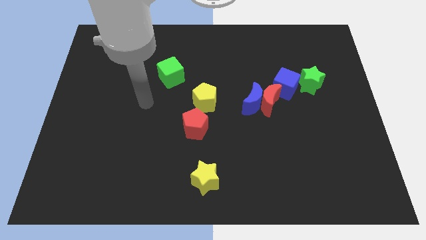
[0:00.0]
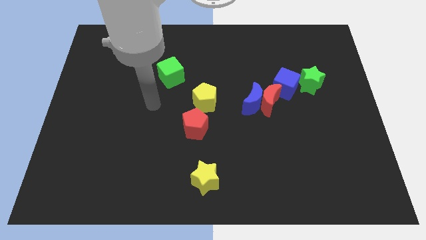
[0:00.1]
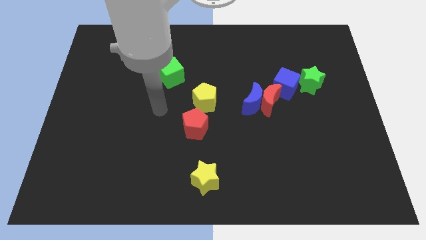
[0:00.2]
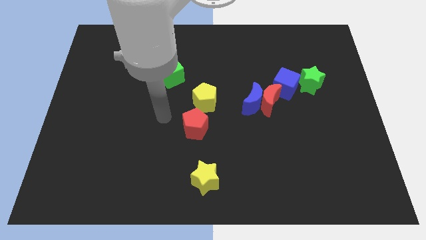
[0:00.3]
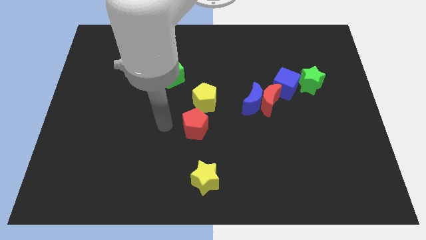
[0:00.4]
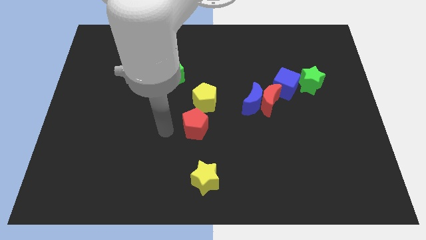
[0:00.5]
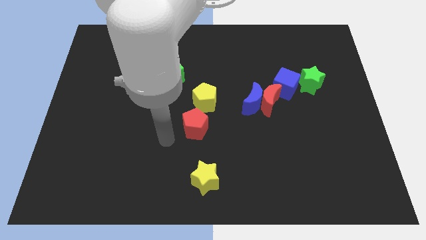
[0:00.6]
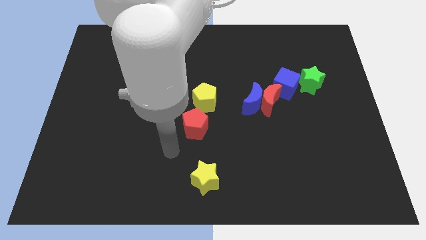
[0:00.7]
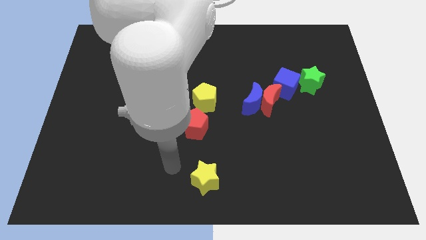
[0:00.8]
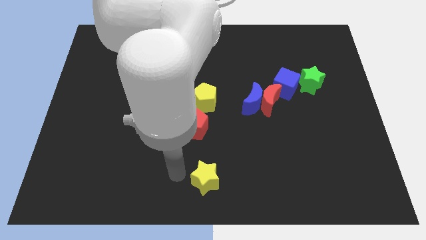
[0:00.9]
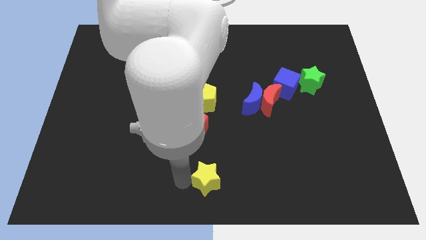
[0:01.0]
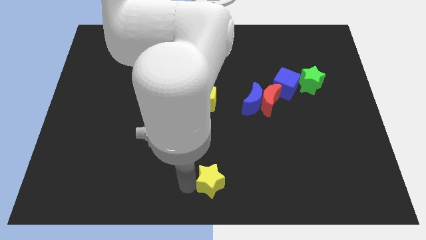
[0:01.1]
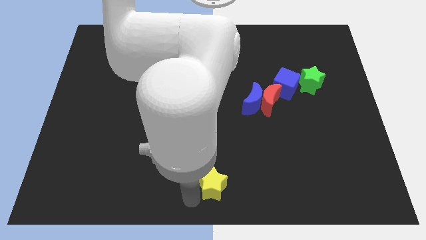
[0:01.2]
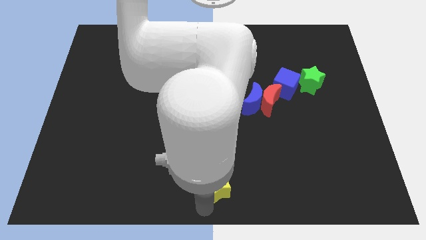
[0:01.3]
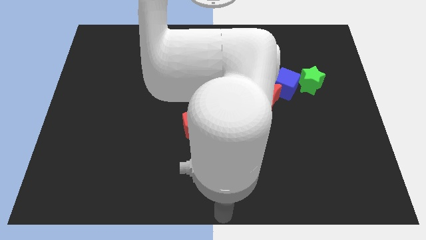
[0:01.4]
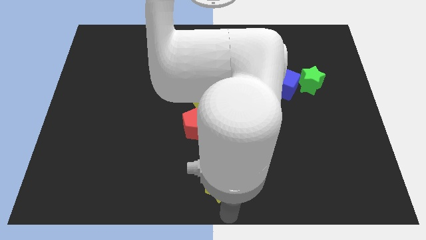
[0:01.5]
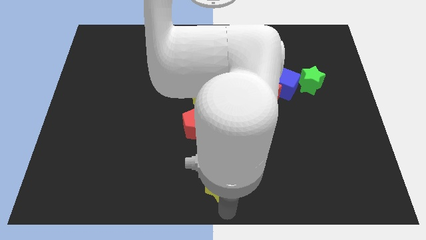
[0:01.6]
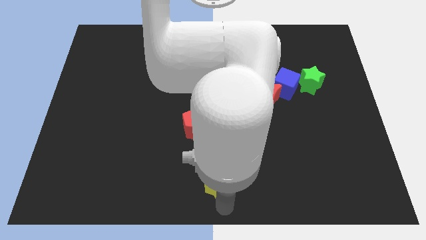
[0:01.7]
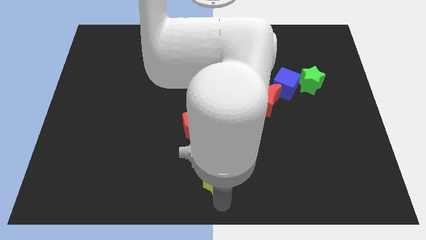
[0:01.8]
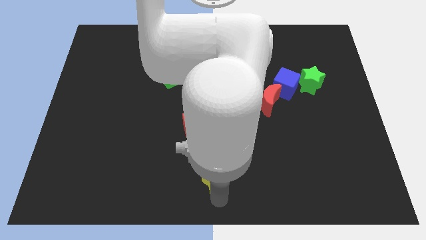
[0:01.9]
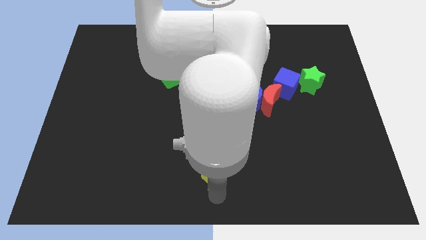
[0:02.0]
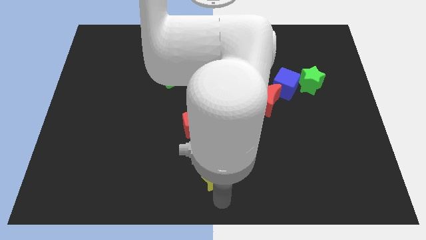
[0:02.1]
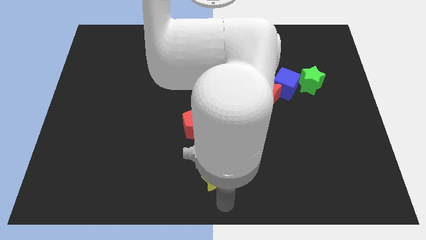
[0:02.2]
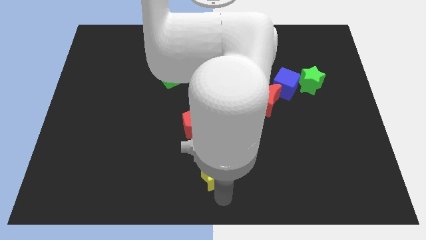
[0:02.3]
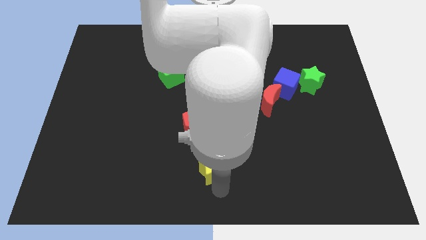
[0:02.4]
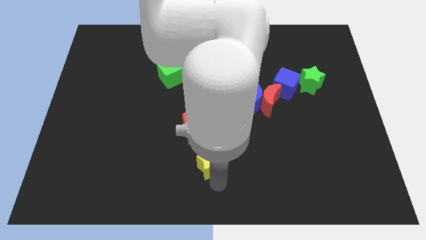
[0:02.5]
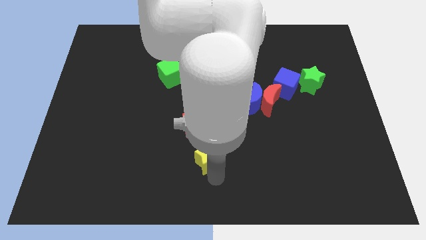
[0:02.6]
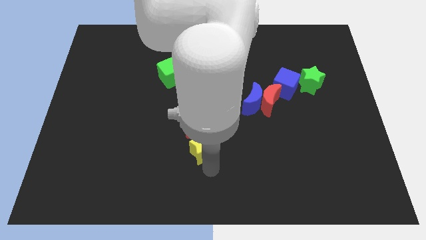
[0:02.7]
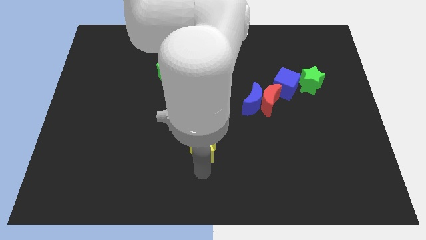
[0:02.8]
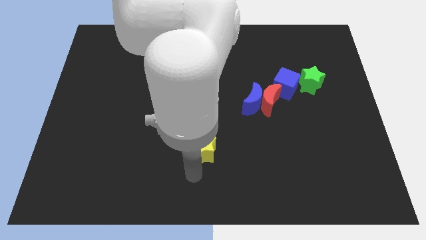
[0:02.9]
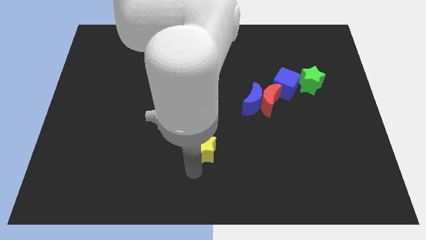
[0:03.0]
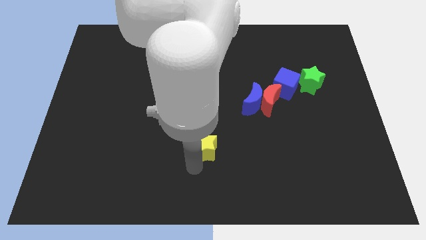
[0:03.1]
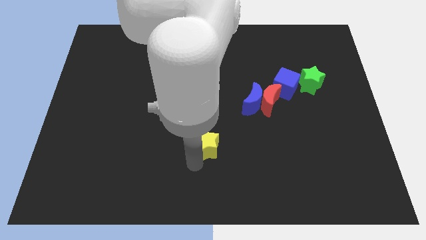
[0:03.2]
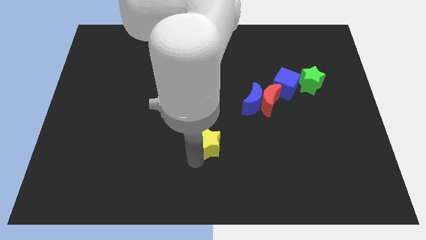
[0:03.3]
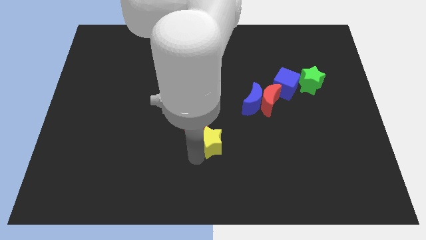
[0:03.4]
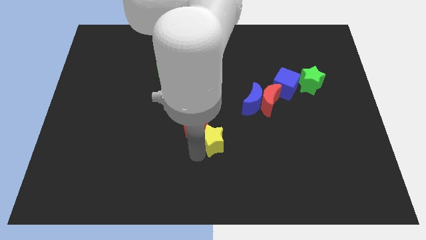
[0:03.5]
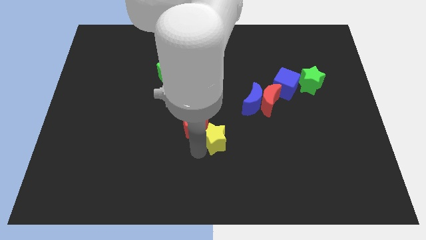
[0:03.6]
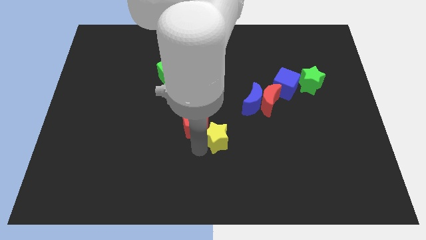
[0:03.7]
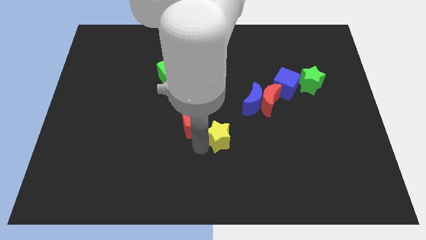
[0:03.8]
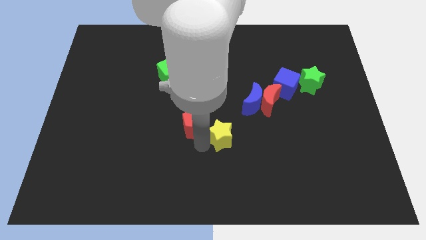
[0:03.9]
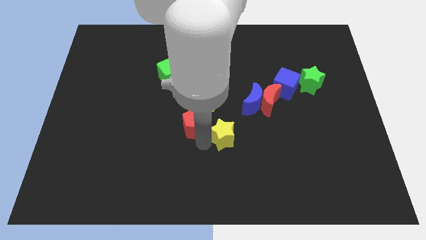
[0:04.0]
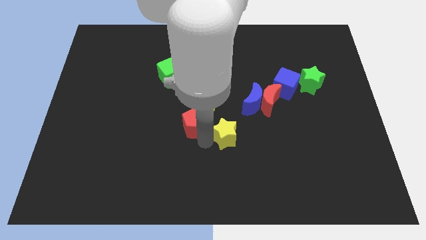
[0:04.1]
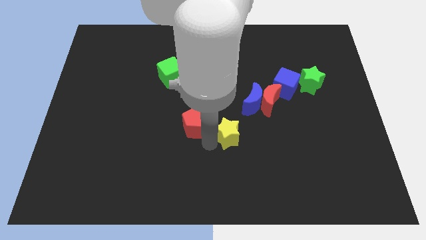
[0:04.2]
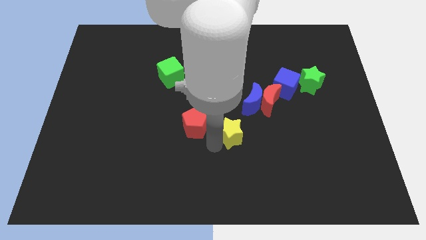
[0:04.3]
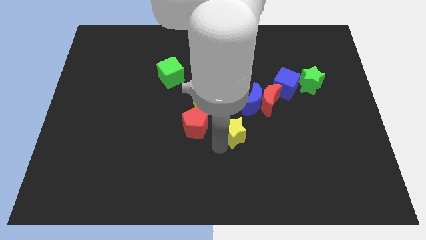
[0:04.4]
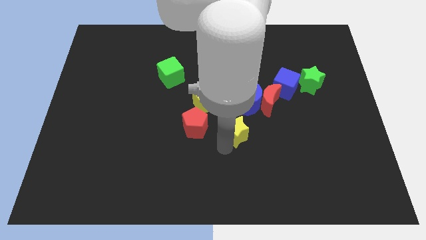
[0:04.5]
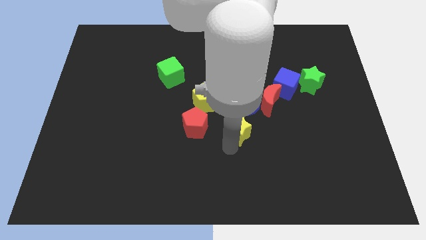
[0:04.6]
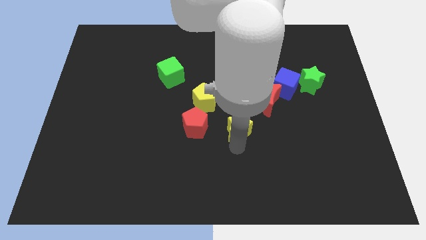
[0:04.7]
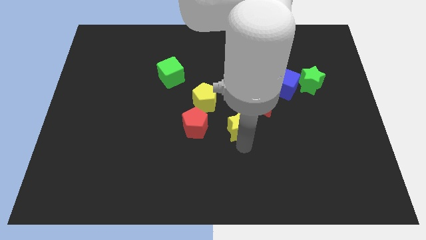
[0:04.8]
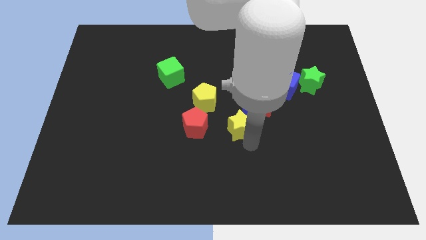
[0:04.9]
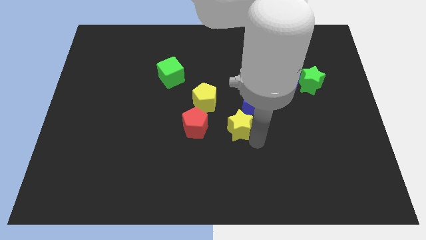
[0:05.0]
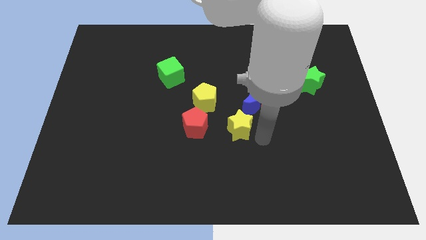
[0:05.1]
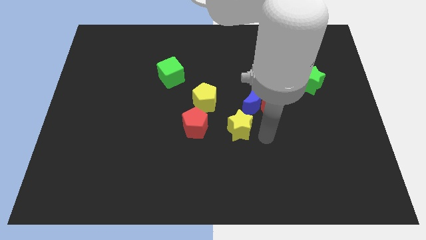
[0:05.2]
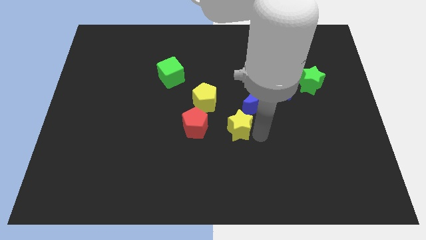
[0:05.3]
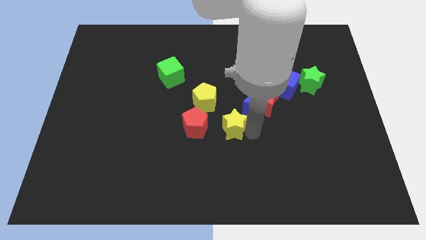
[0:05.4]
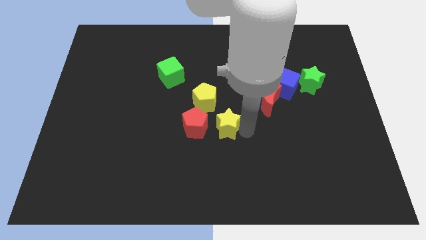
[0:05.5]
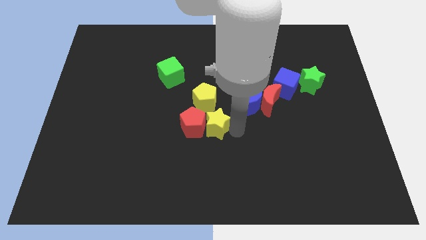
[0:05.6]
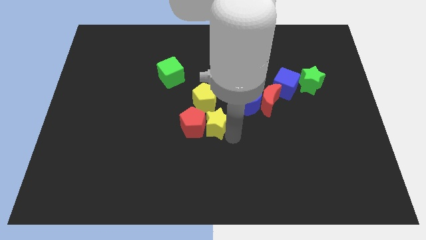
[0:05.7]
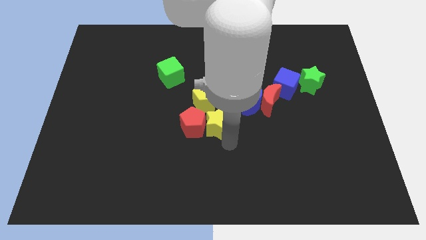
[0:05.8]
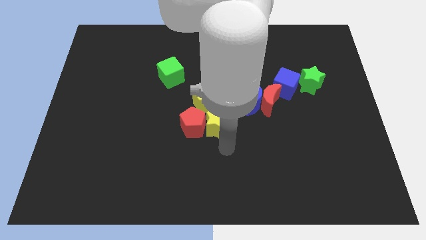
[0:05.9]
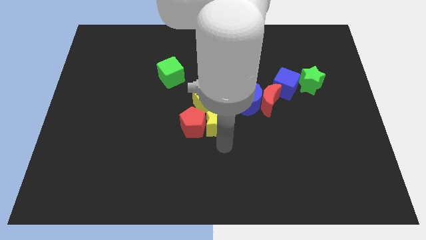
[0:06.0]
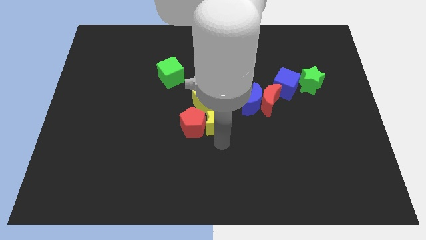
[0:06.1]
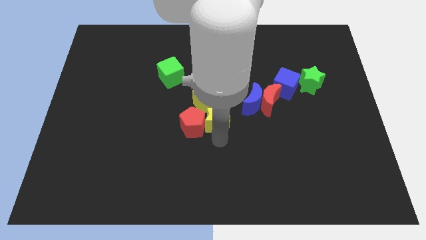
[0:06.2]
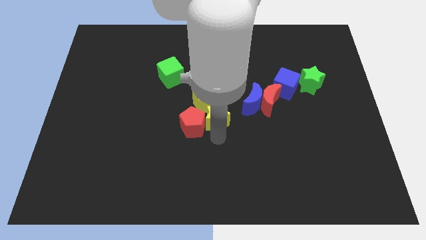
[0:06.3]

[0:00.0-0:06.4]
push the yellow star towards the yellow pentagon

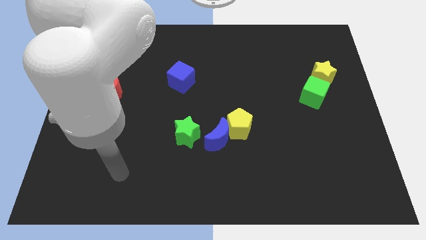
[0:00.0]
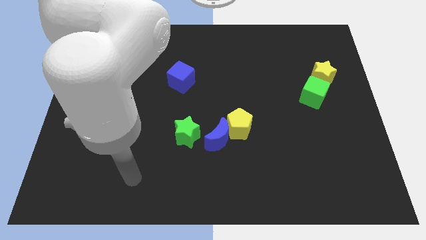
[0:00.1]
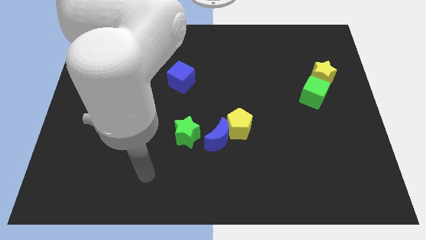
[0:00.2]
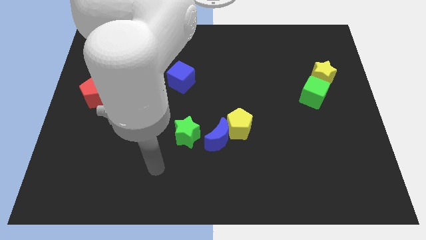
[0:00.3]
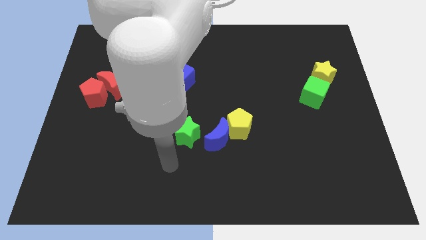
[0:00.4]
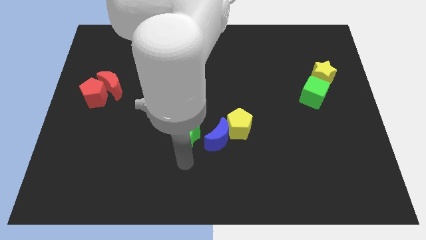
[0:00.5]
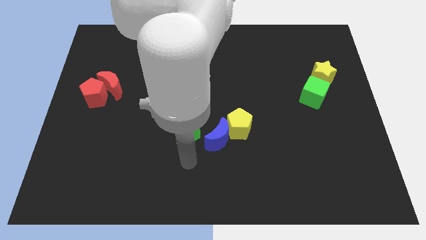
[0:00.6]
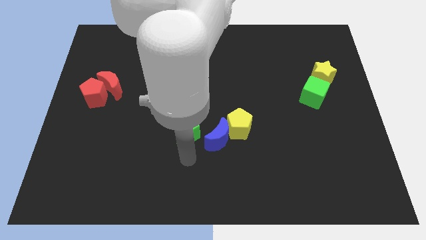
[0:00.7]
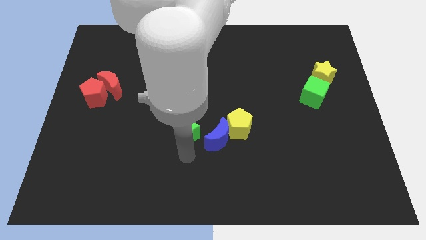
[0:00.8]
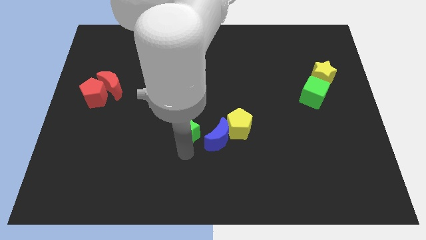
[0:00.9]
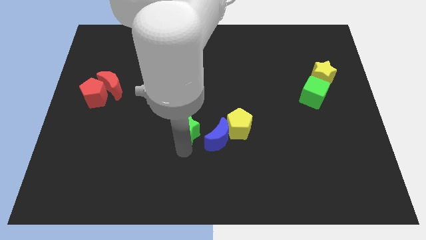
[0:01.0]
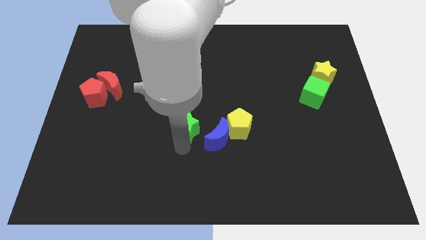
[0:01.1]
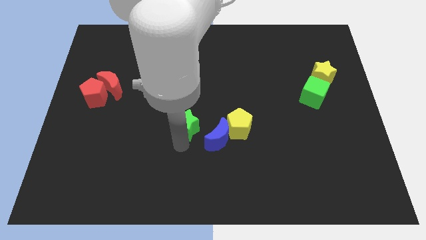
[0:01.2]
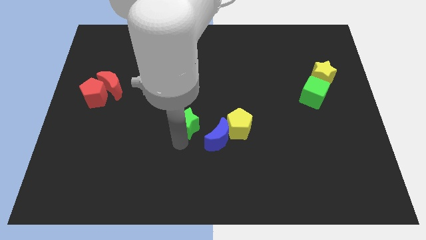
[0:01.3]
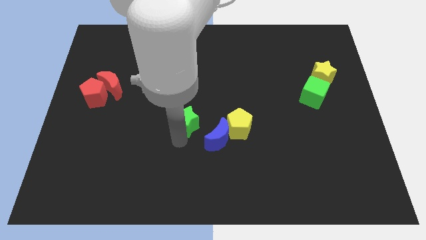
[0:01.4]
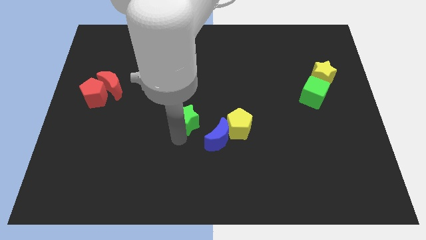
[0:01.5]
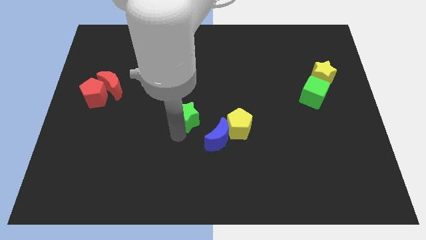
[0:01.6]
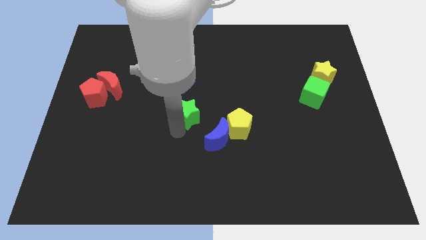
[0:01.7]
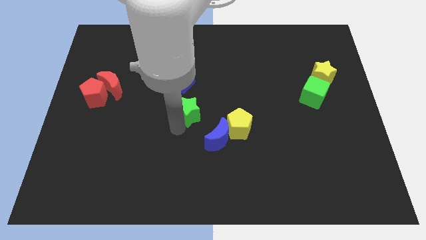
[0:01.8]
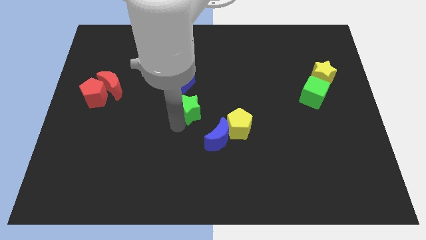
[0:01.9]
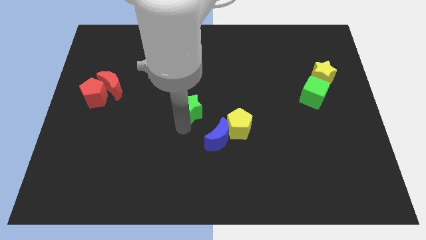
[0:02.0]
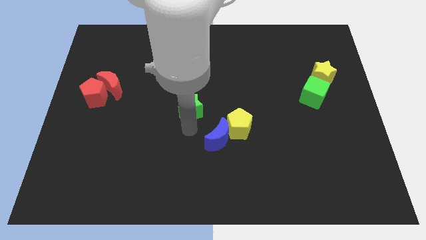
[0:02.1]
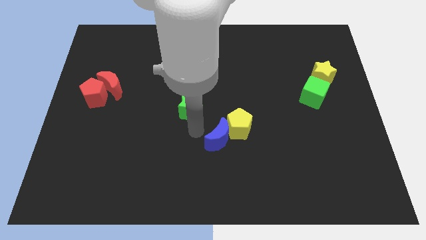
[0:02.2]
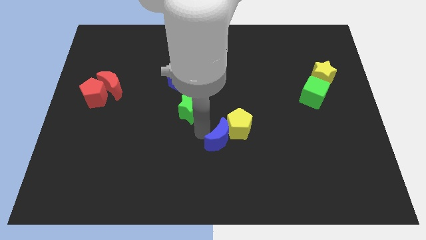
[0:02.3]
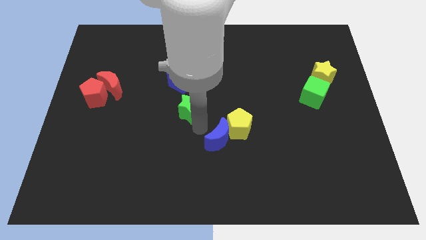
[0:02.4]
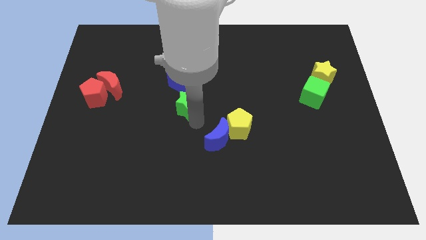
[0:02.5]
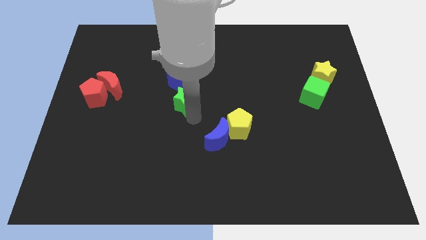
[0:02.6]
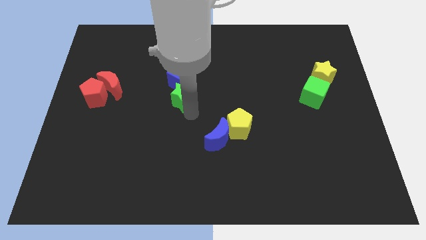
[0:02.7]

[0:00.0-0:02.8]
slide the green star close to the blue cube
